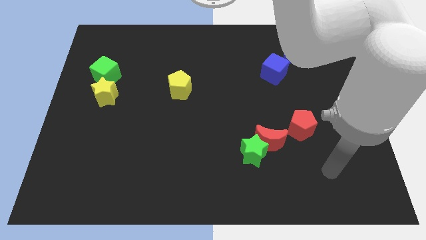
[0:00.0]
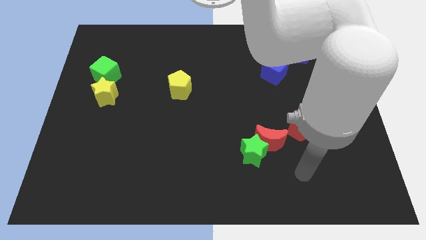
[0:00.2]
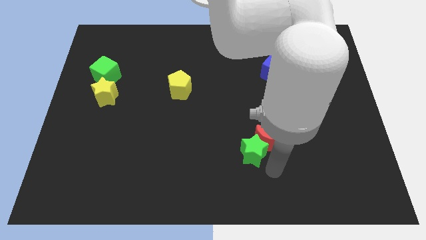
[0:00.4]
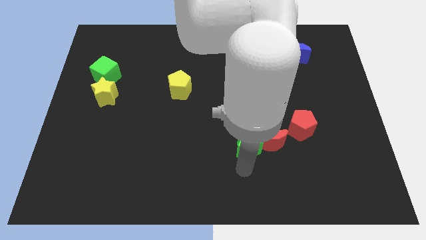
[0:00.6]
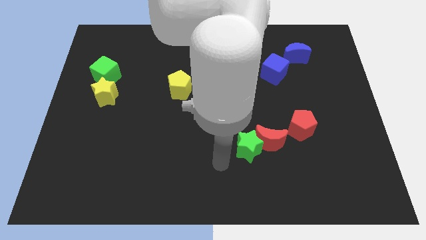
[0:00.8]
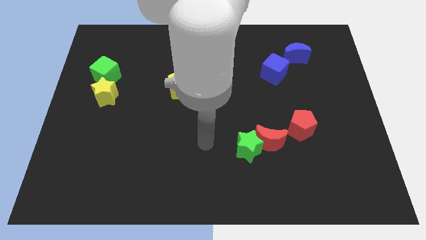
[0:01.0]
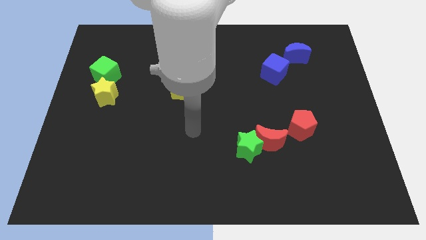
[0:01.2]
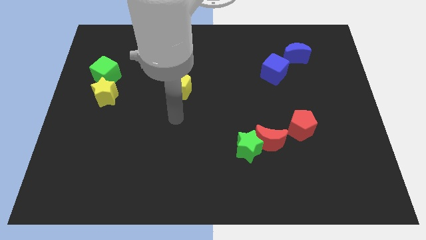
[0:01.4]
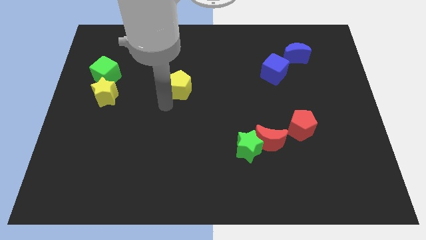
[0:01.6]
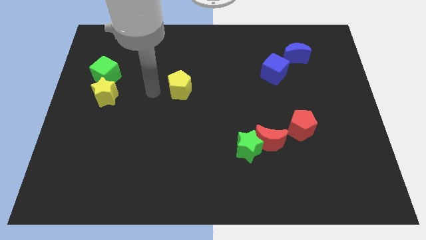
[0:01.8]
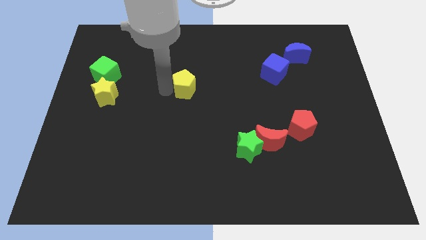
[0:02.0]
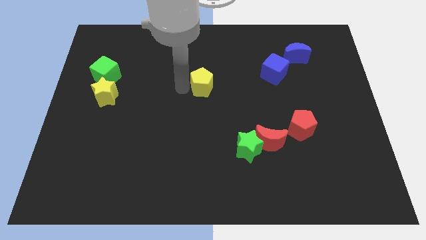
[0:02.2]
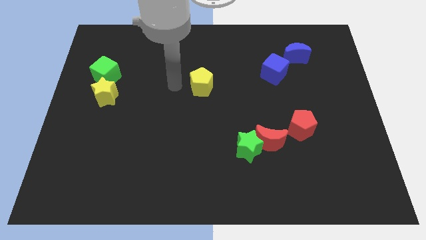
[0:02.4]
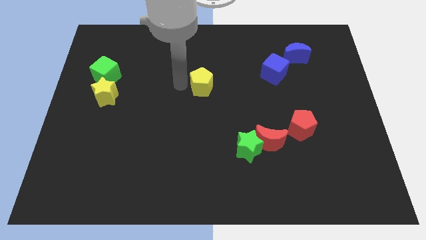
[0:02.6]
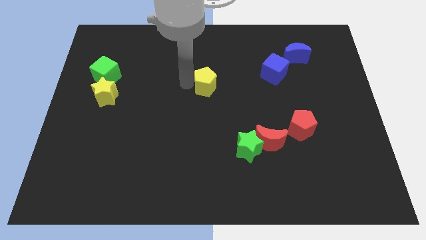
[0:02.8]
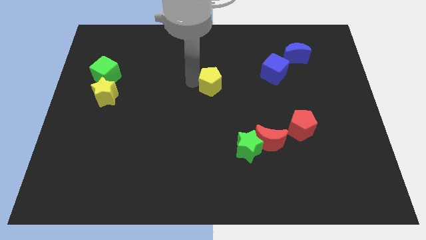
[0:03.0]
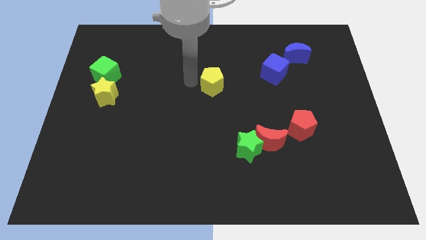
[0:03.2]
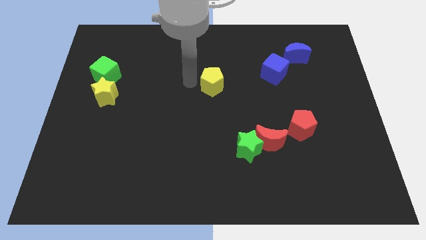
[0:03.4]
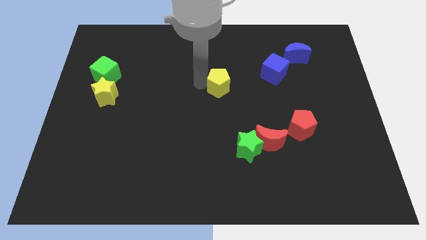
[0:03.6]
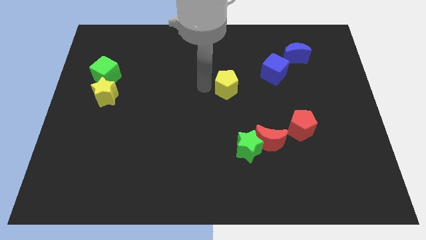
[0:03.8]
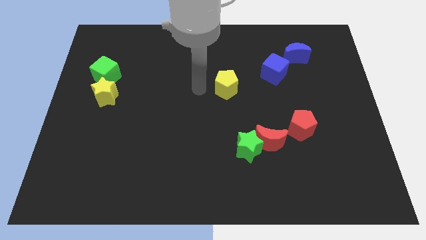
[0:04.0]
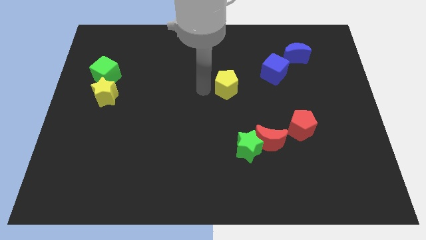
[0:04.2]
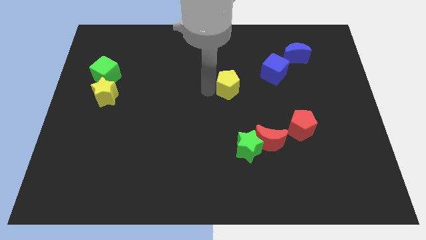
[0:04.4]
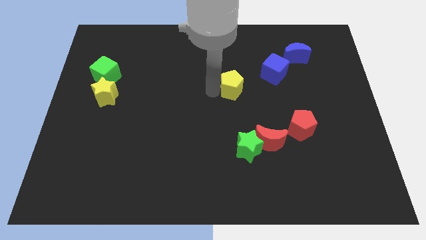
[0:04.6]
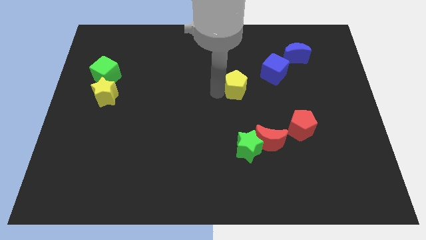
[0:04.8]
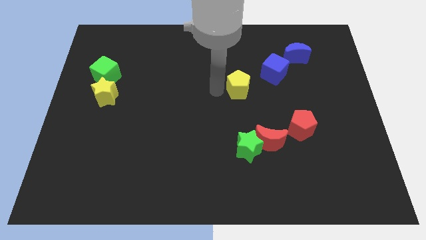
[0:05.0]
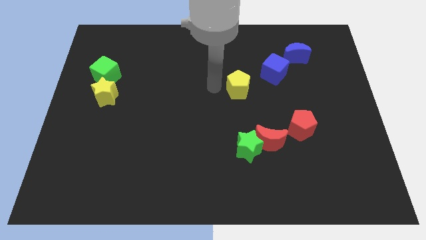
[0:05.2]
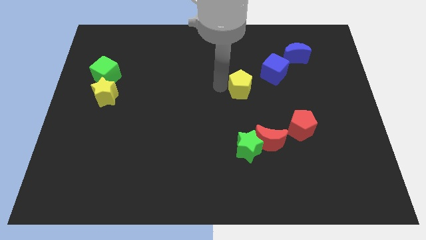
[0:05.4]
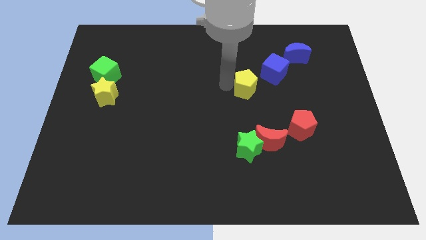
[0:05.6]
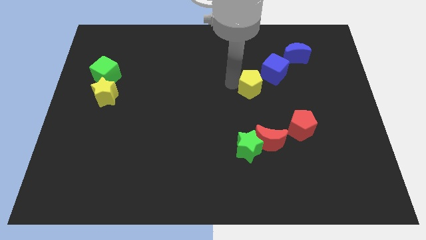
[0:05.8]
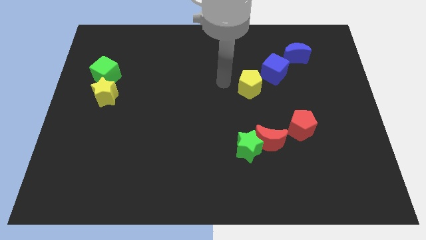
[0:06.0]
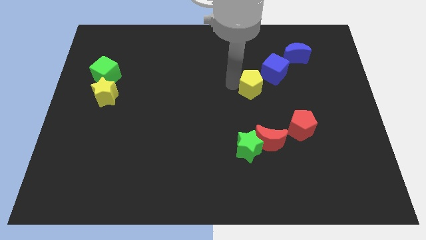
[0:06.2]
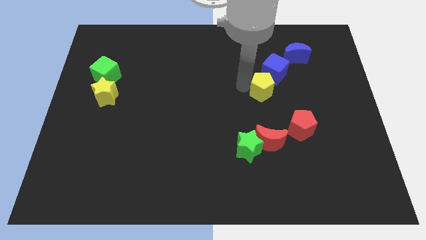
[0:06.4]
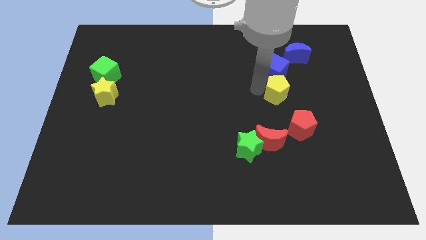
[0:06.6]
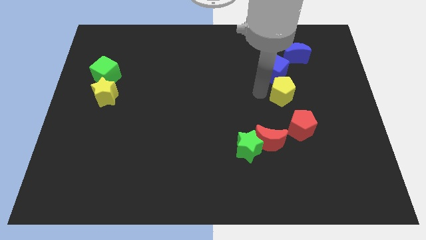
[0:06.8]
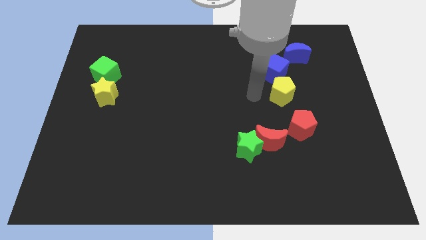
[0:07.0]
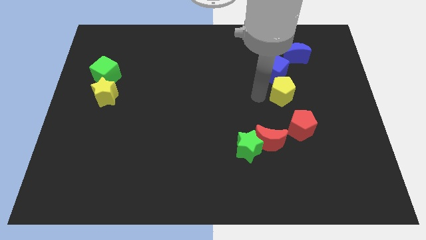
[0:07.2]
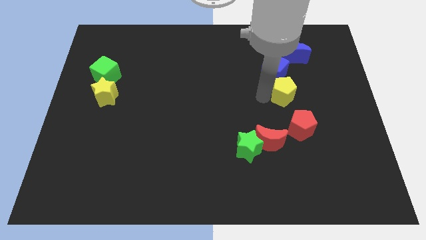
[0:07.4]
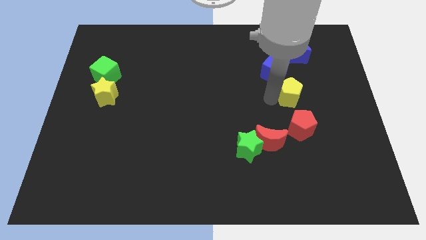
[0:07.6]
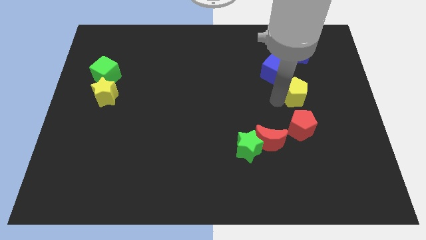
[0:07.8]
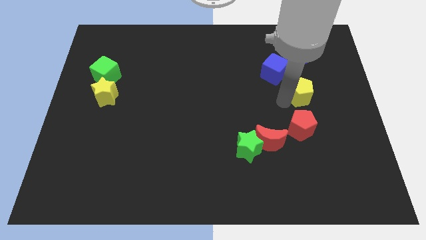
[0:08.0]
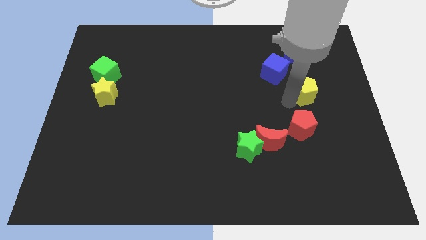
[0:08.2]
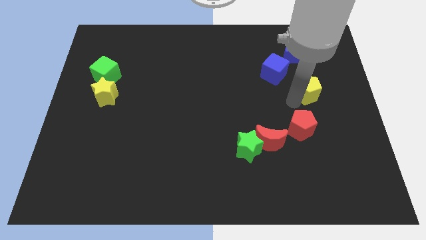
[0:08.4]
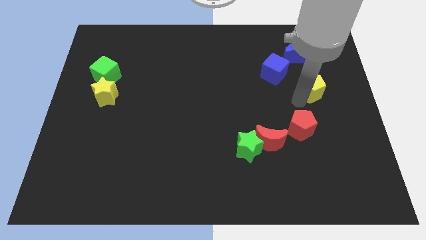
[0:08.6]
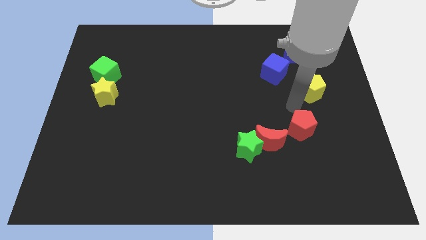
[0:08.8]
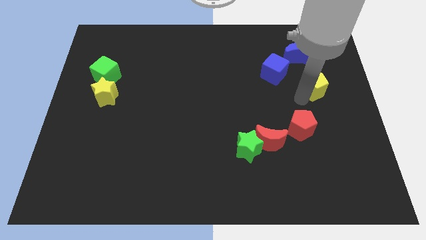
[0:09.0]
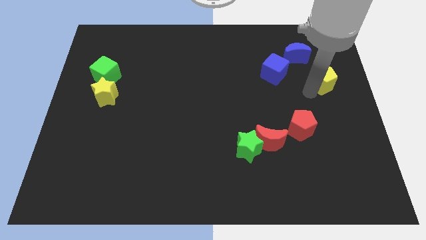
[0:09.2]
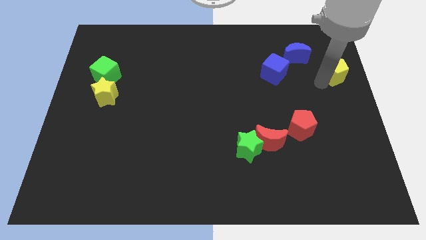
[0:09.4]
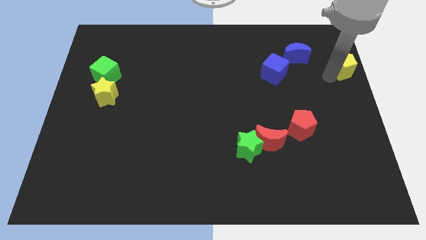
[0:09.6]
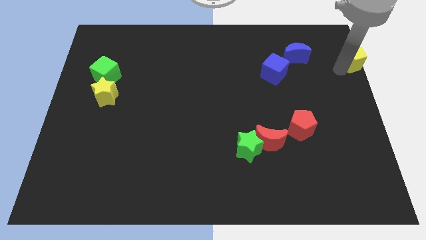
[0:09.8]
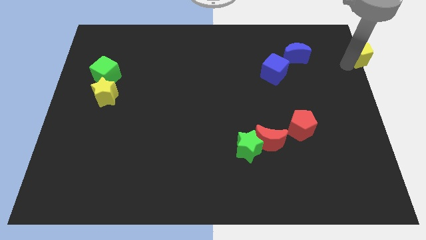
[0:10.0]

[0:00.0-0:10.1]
put the yellow pentagon to the upper right corner

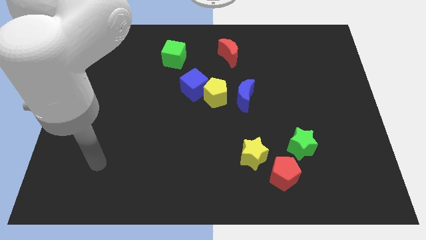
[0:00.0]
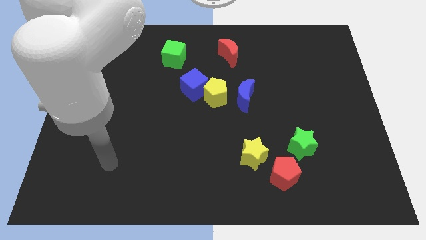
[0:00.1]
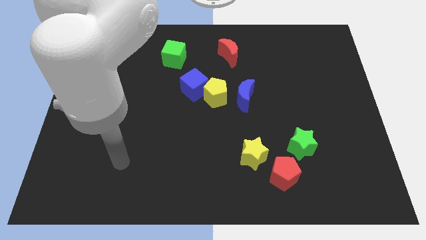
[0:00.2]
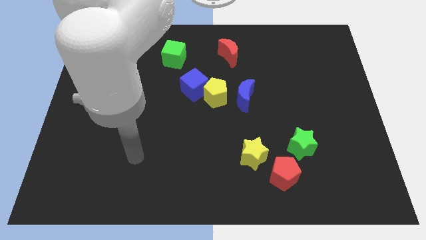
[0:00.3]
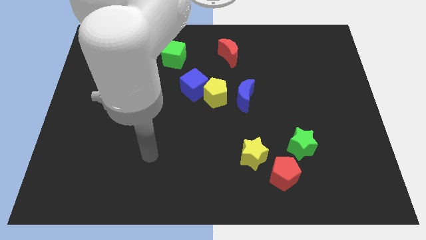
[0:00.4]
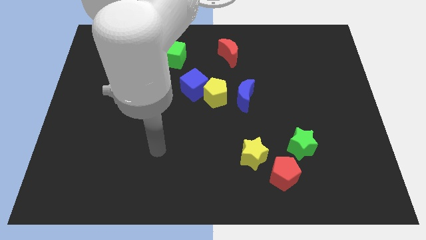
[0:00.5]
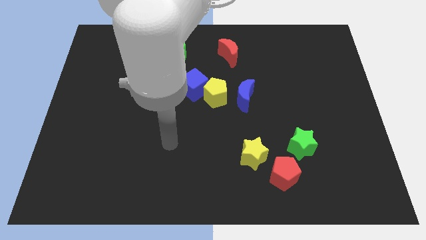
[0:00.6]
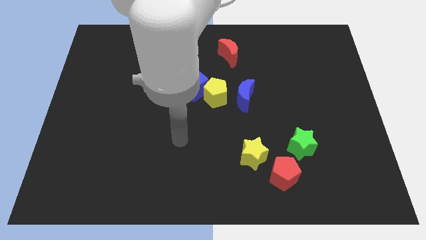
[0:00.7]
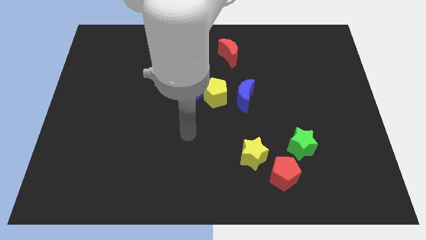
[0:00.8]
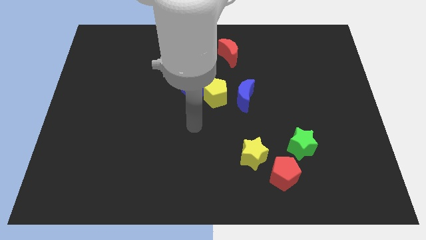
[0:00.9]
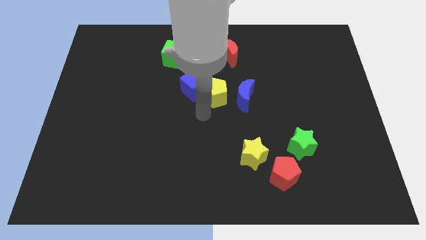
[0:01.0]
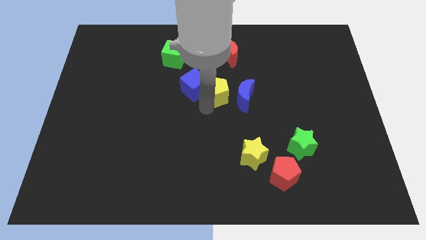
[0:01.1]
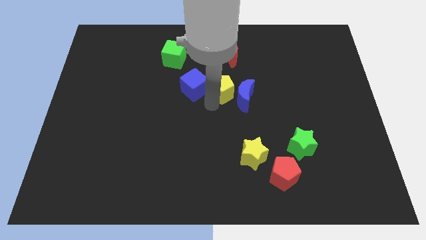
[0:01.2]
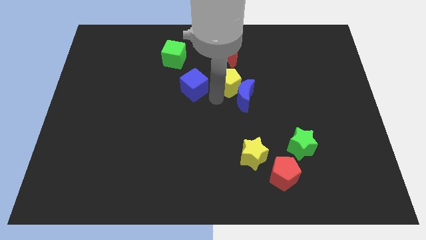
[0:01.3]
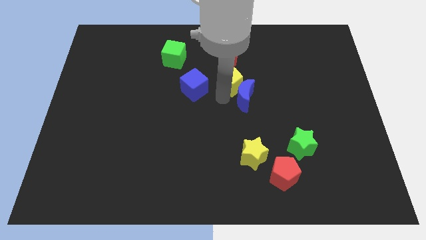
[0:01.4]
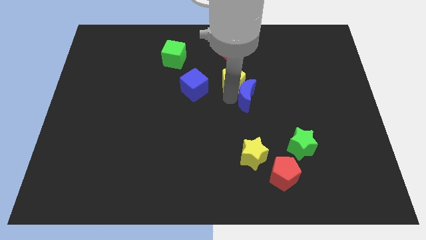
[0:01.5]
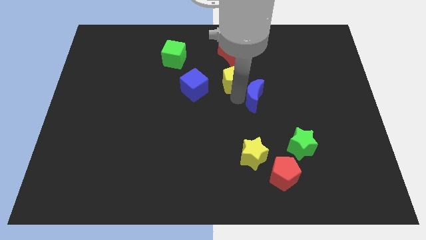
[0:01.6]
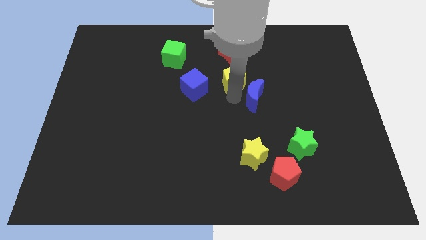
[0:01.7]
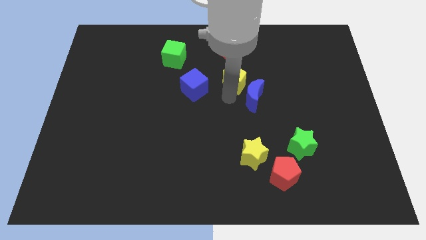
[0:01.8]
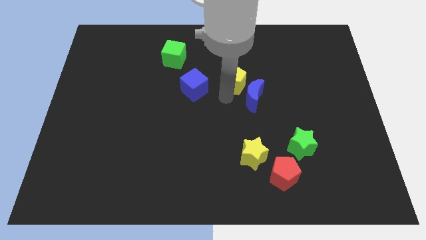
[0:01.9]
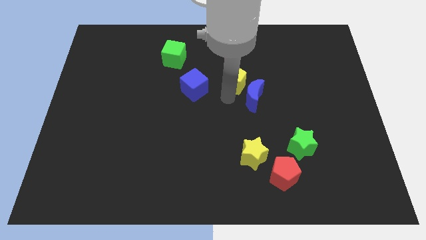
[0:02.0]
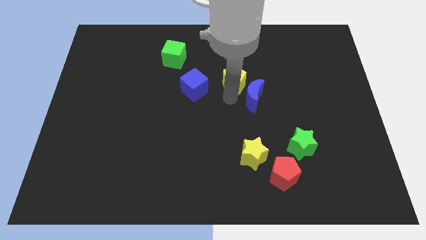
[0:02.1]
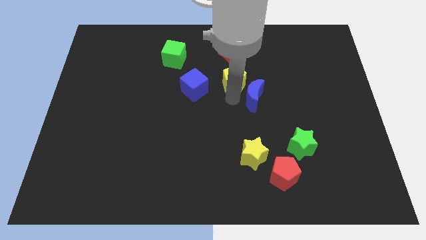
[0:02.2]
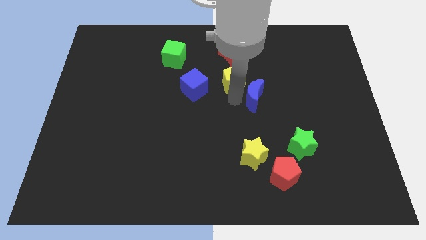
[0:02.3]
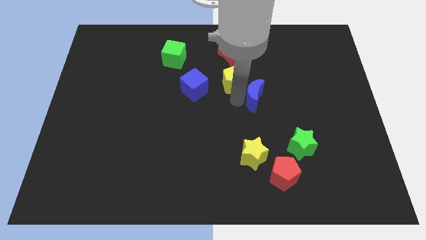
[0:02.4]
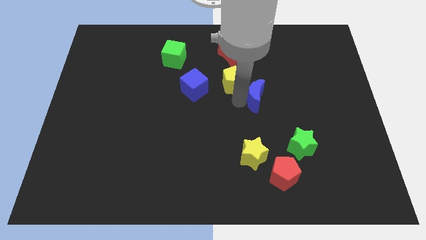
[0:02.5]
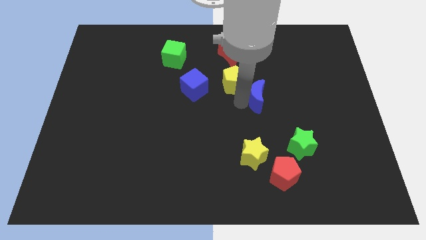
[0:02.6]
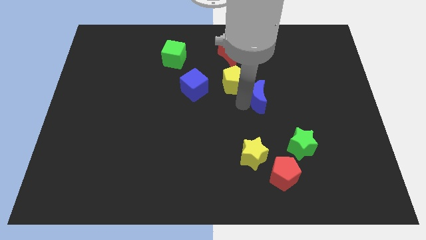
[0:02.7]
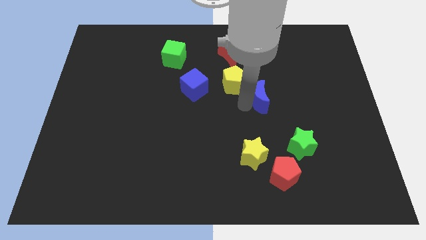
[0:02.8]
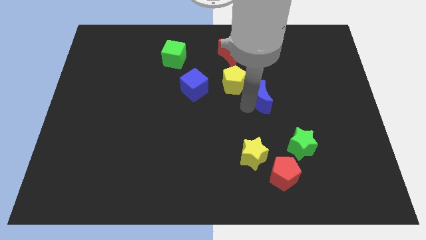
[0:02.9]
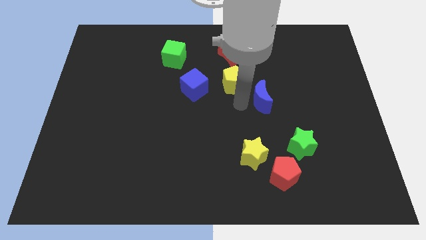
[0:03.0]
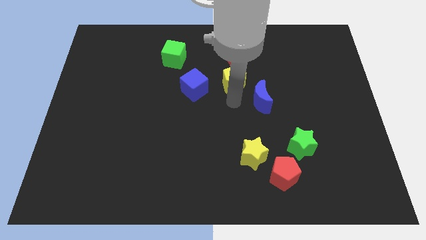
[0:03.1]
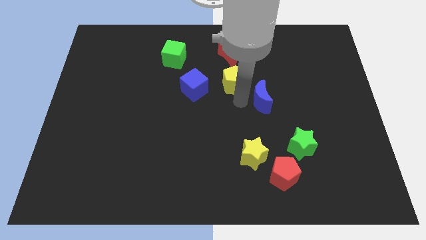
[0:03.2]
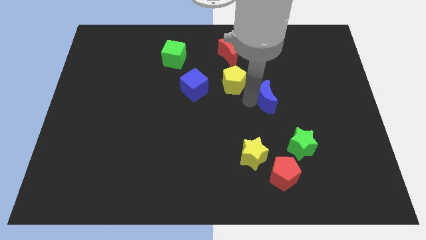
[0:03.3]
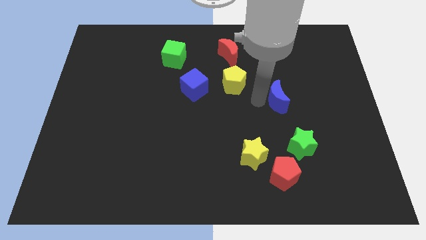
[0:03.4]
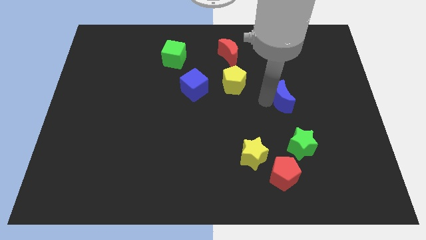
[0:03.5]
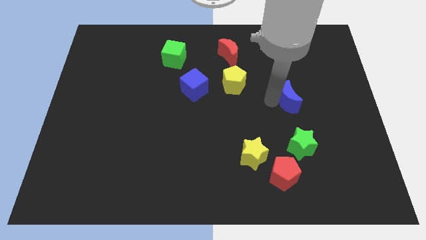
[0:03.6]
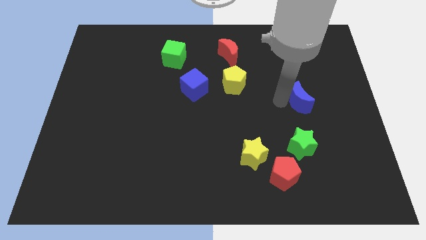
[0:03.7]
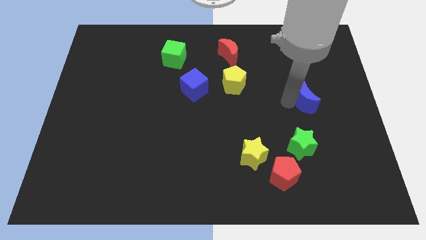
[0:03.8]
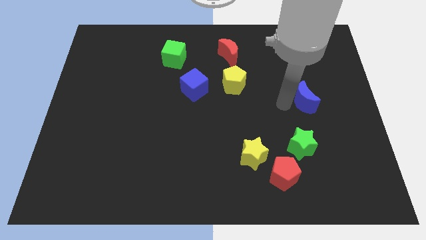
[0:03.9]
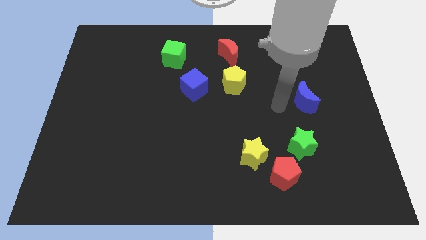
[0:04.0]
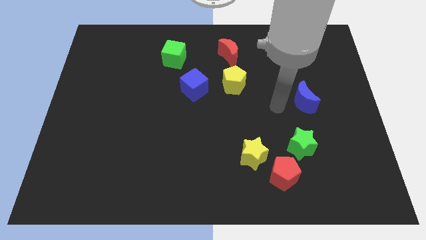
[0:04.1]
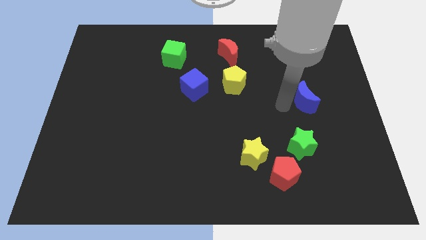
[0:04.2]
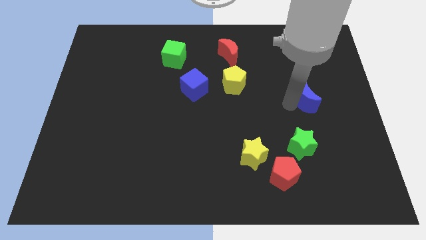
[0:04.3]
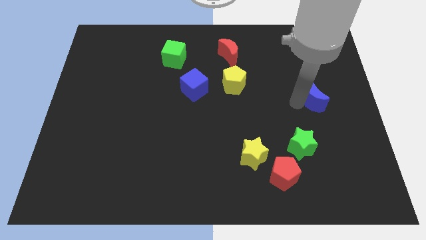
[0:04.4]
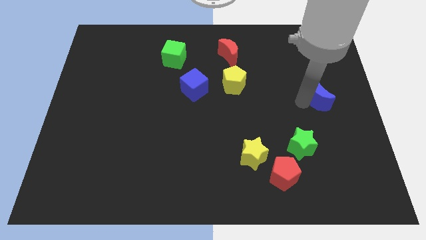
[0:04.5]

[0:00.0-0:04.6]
push the blue moon to the center right
